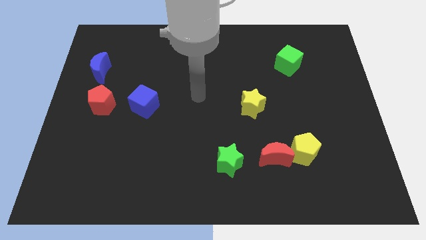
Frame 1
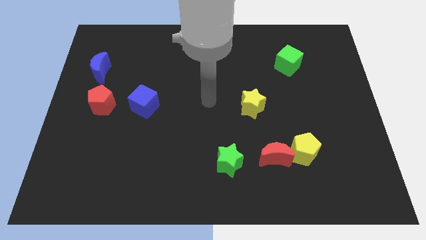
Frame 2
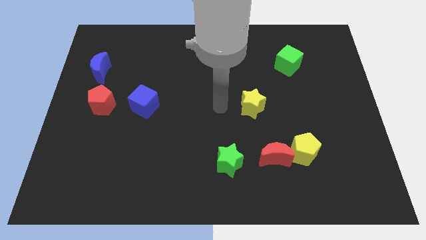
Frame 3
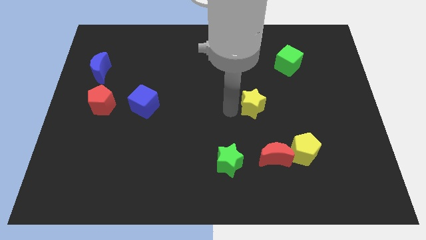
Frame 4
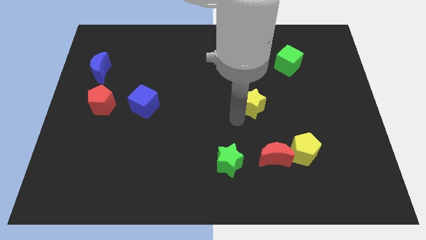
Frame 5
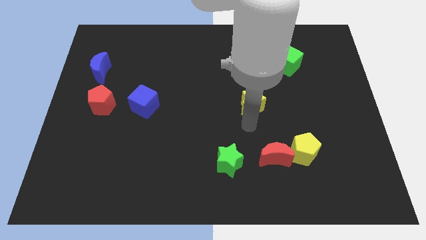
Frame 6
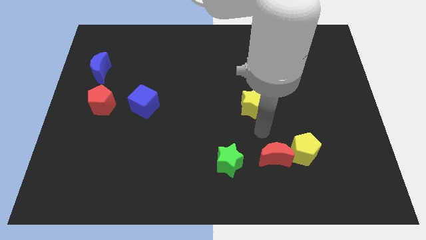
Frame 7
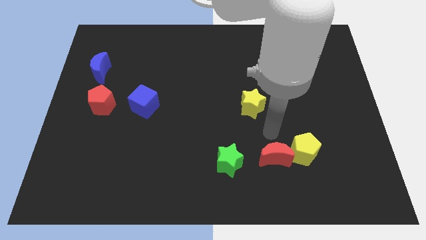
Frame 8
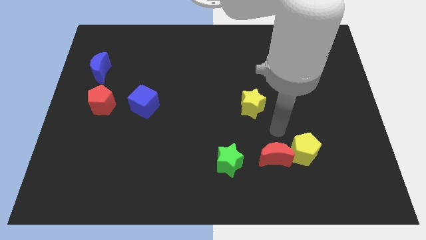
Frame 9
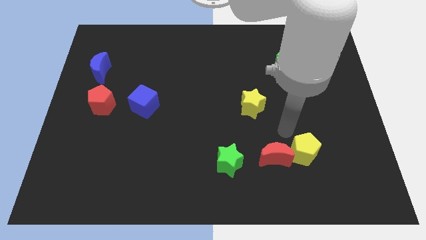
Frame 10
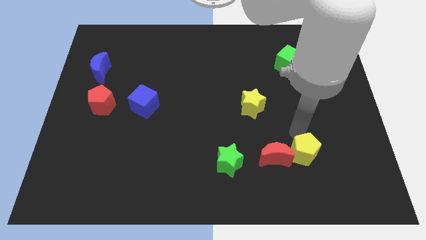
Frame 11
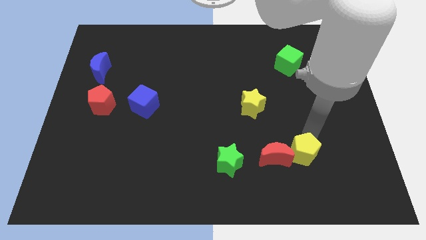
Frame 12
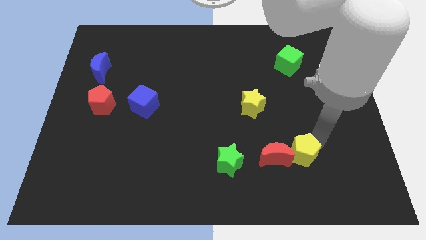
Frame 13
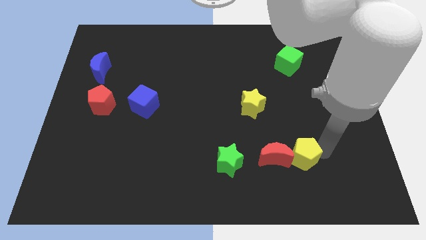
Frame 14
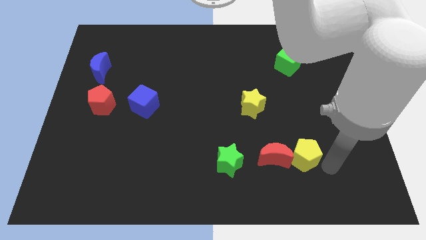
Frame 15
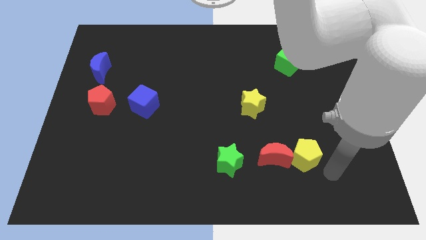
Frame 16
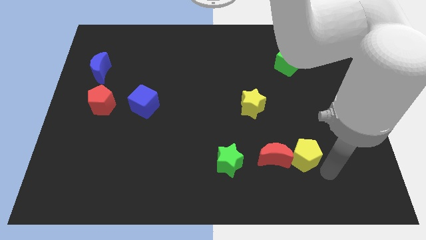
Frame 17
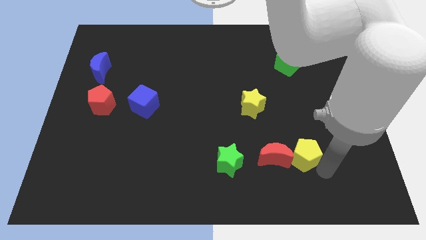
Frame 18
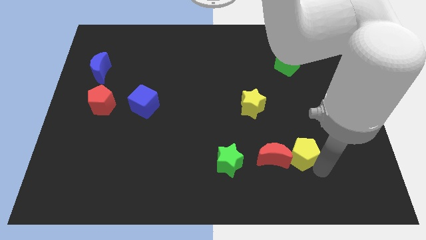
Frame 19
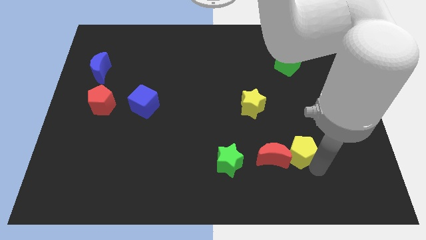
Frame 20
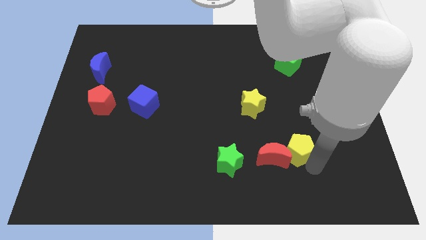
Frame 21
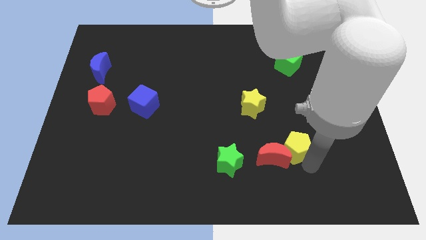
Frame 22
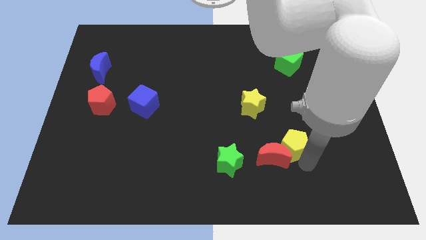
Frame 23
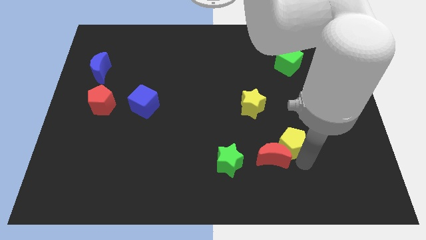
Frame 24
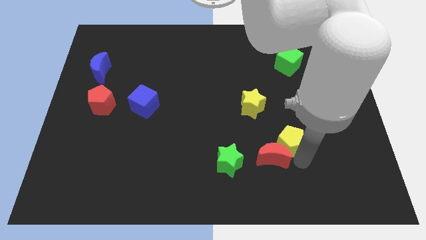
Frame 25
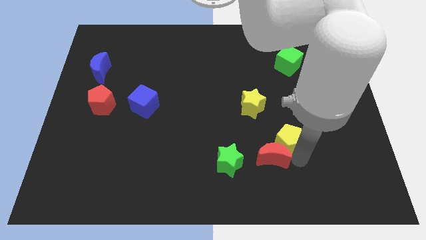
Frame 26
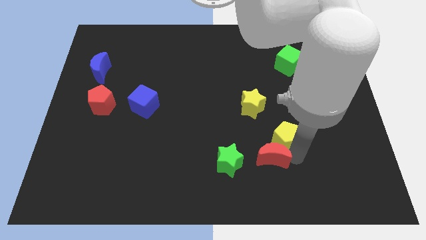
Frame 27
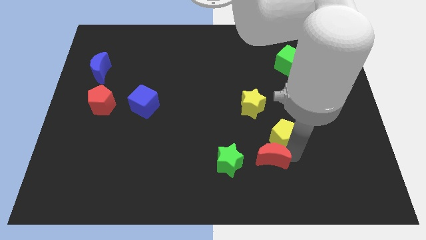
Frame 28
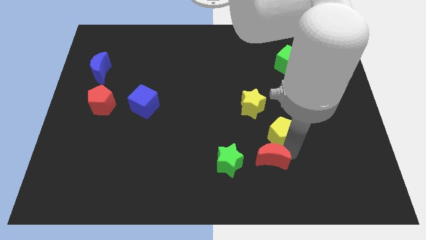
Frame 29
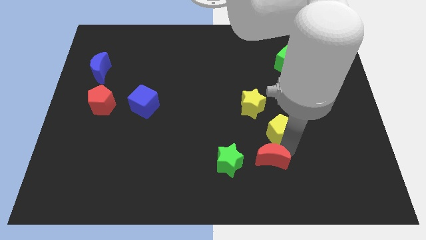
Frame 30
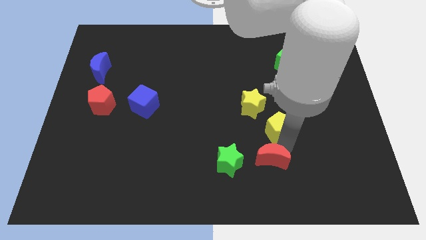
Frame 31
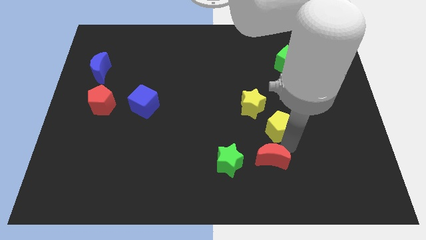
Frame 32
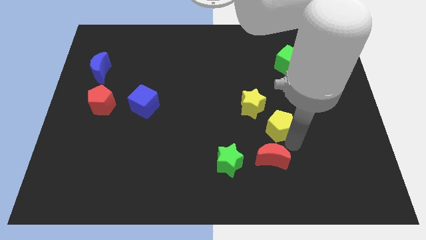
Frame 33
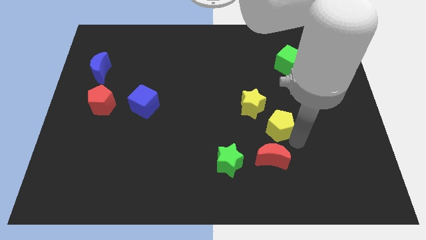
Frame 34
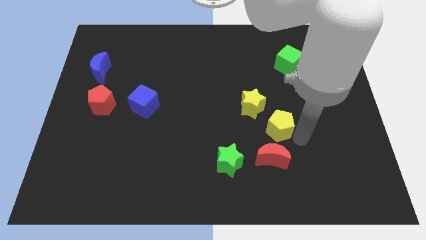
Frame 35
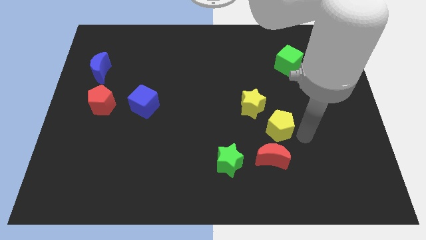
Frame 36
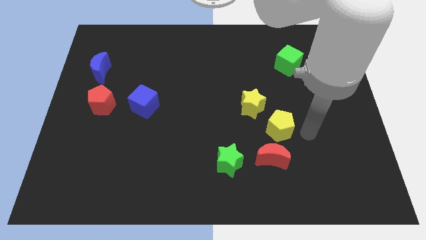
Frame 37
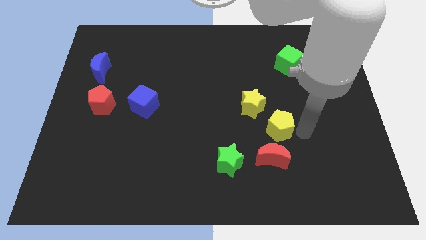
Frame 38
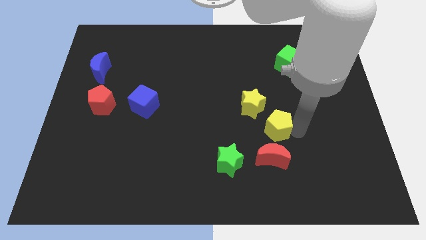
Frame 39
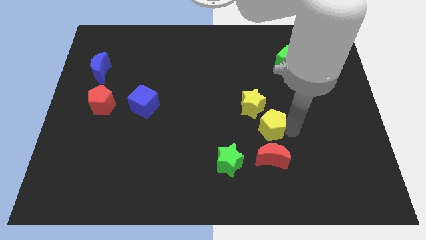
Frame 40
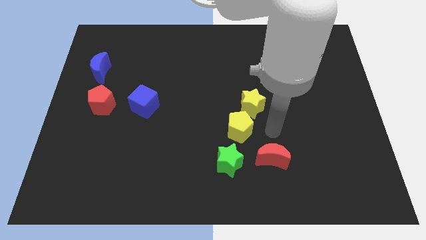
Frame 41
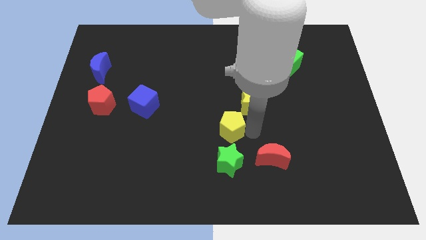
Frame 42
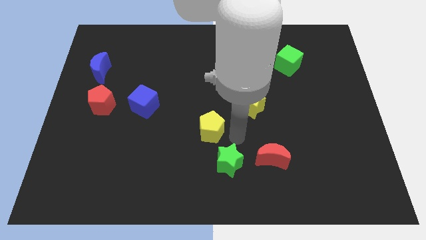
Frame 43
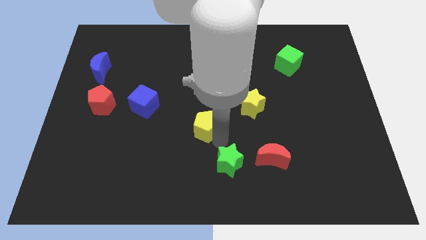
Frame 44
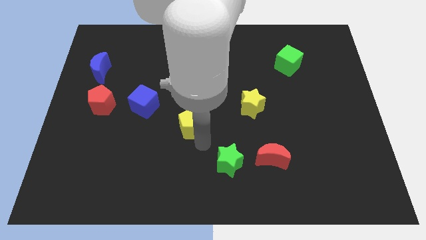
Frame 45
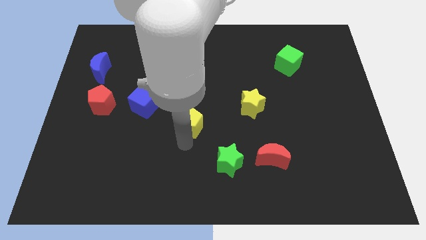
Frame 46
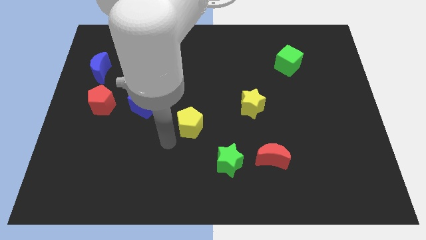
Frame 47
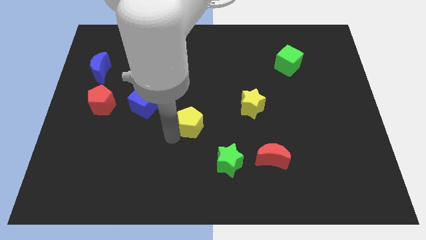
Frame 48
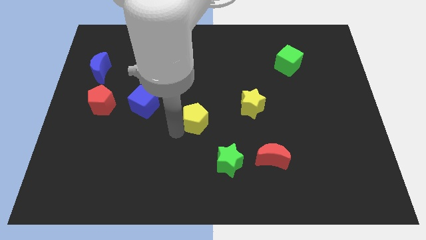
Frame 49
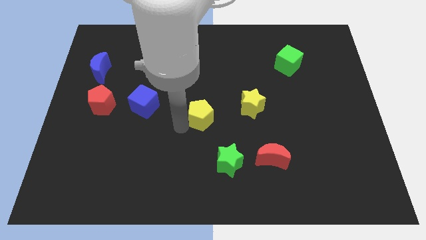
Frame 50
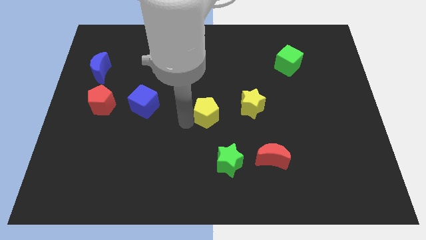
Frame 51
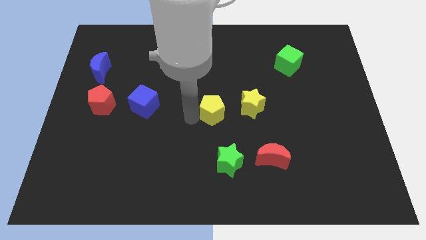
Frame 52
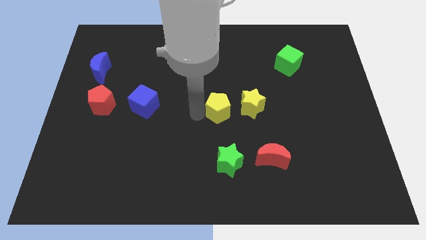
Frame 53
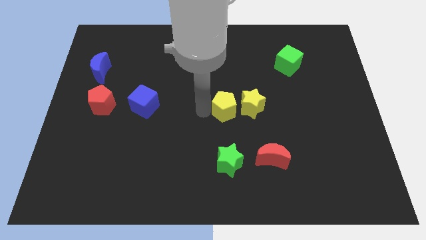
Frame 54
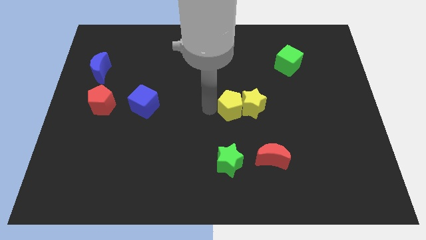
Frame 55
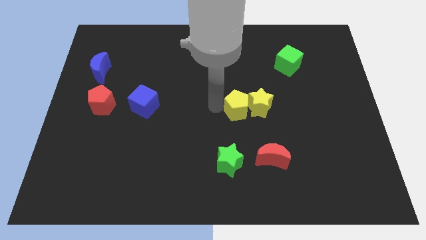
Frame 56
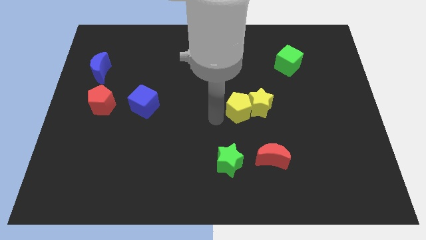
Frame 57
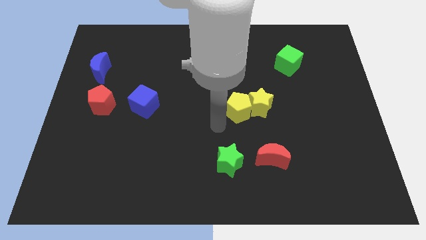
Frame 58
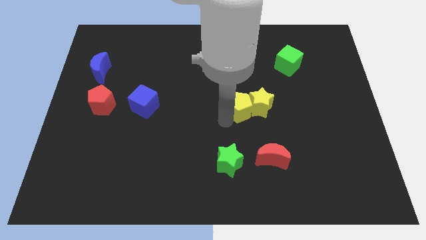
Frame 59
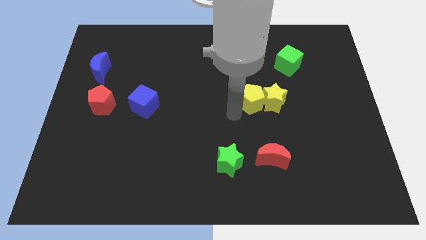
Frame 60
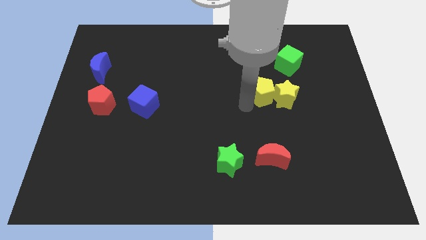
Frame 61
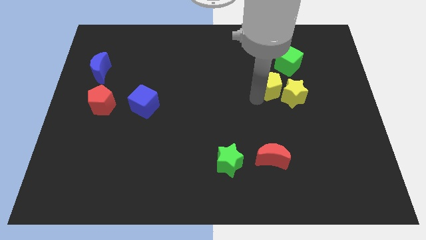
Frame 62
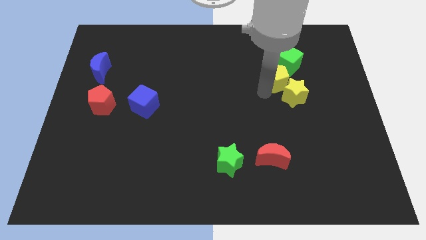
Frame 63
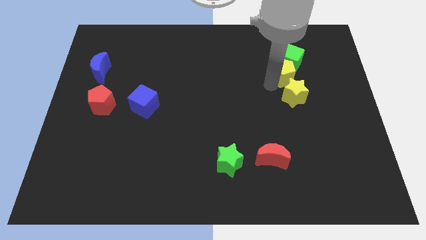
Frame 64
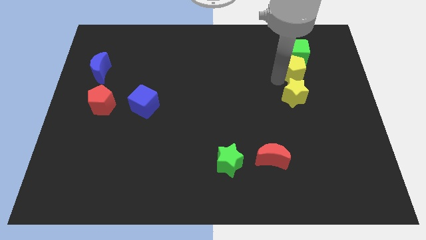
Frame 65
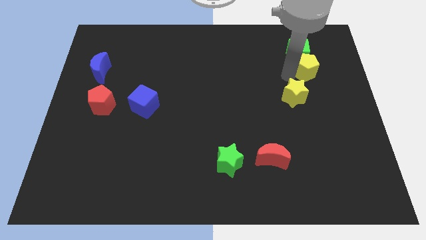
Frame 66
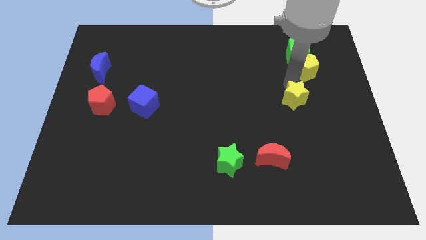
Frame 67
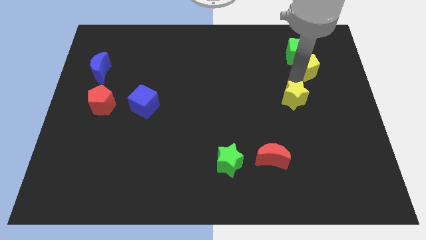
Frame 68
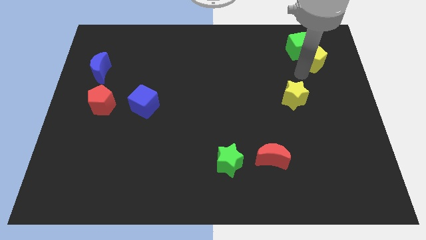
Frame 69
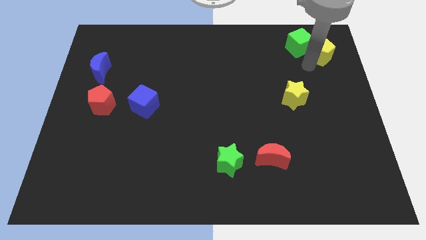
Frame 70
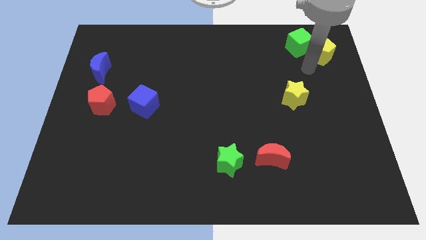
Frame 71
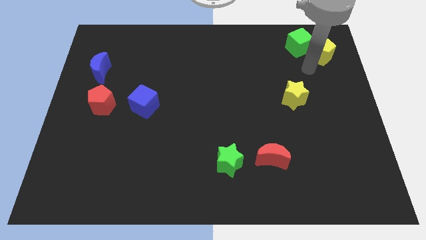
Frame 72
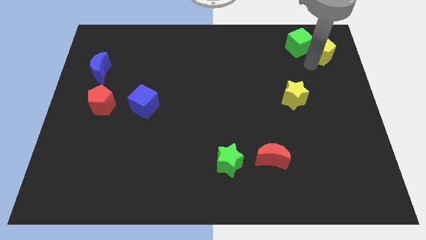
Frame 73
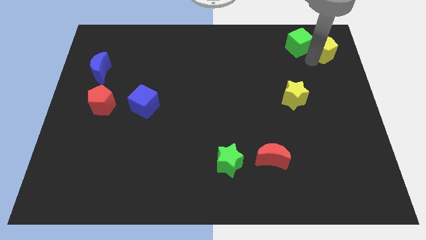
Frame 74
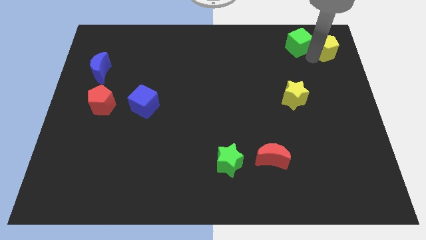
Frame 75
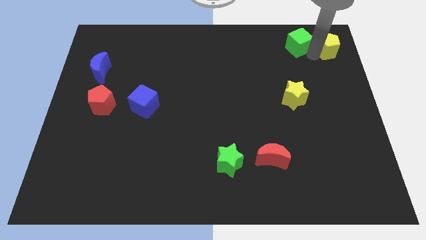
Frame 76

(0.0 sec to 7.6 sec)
move the yellow pentagon to the top right
